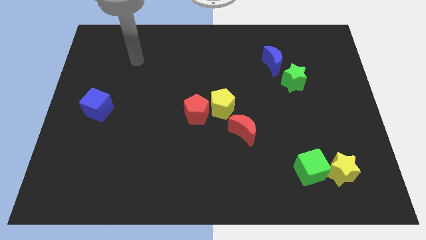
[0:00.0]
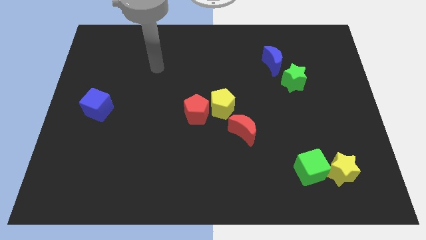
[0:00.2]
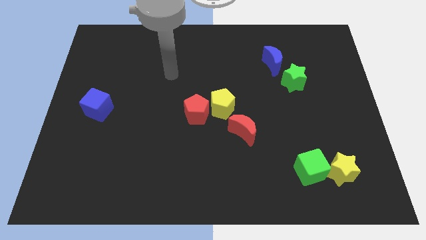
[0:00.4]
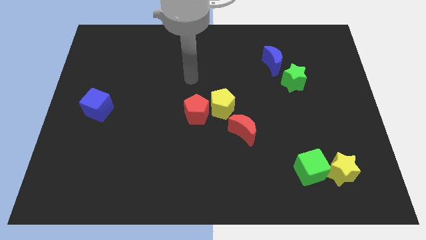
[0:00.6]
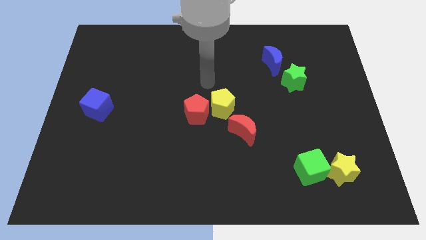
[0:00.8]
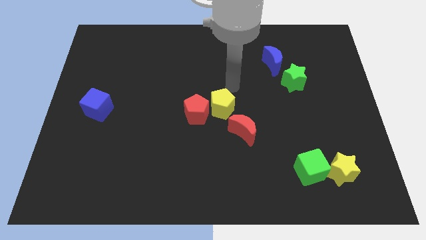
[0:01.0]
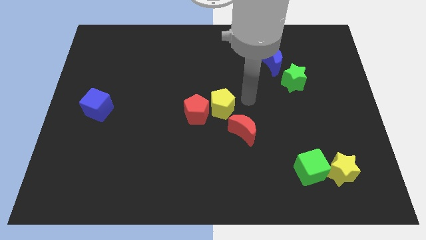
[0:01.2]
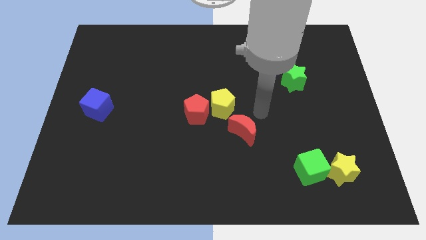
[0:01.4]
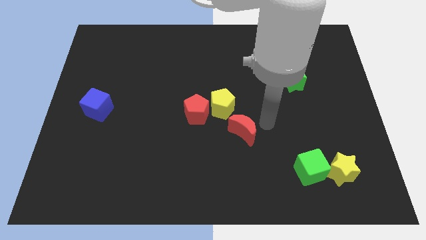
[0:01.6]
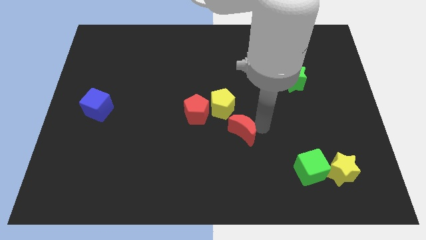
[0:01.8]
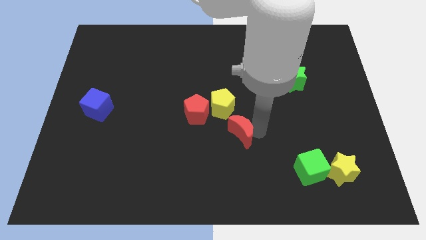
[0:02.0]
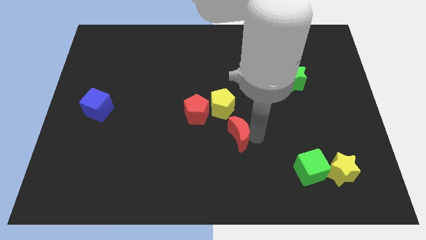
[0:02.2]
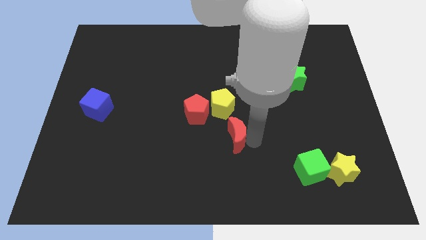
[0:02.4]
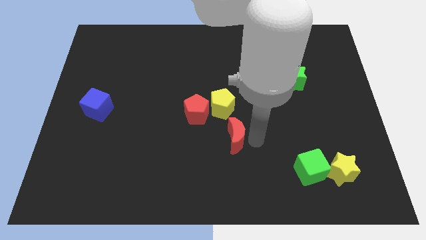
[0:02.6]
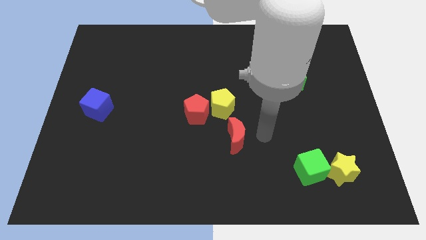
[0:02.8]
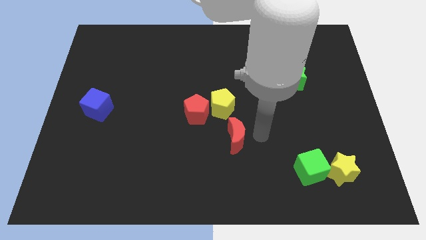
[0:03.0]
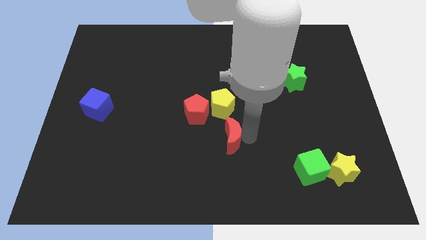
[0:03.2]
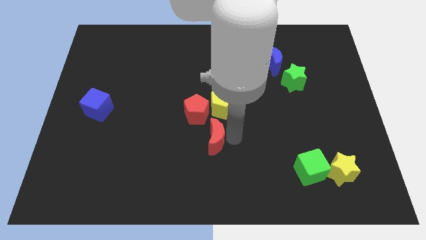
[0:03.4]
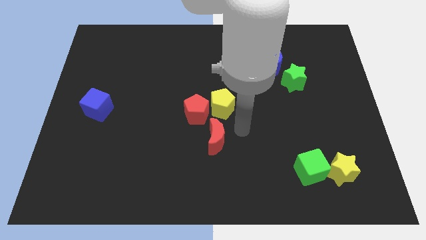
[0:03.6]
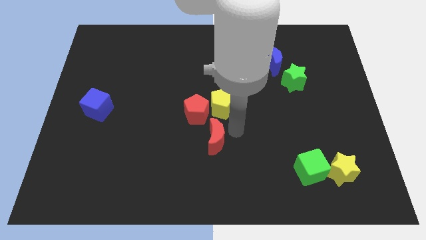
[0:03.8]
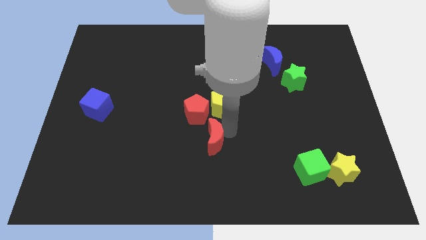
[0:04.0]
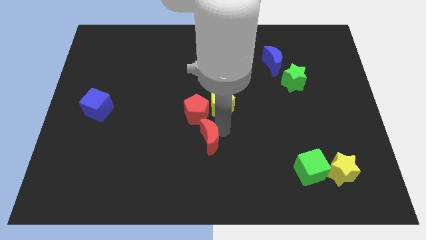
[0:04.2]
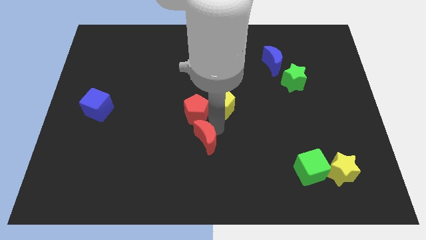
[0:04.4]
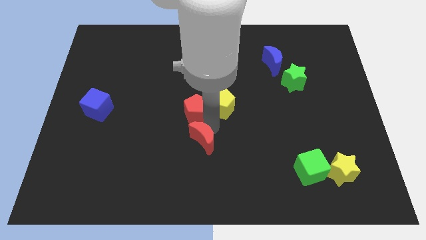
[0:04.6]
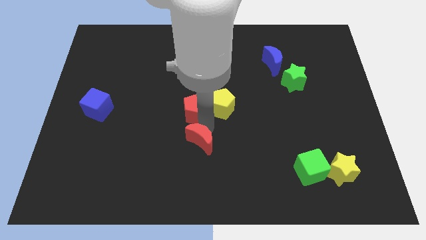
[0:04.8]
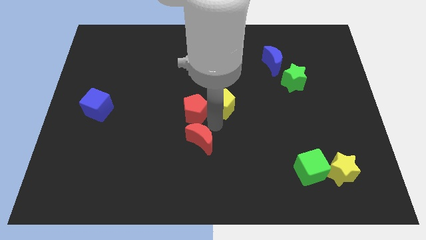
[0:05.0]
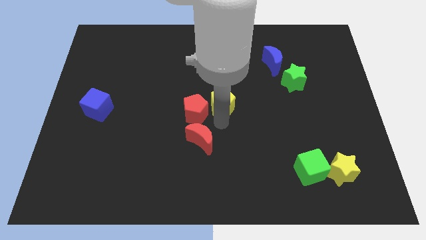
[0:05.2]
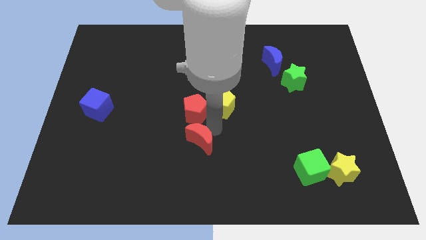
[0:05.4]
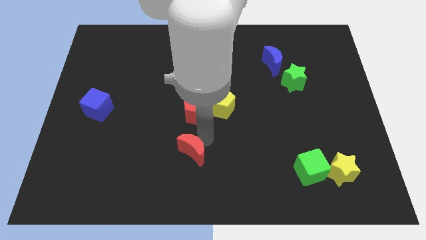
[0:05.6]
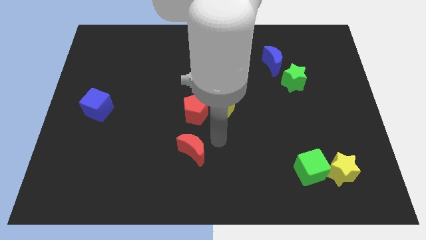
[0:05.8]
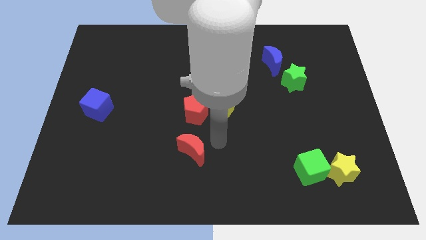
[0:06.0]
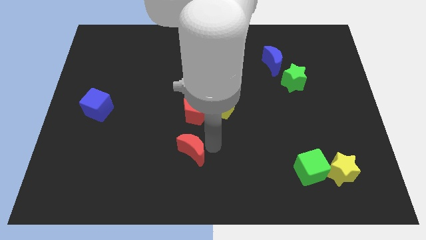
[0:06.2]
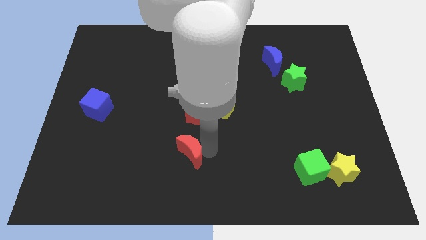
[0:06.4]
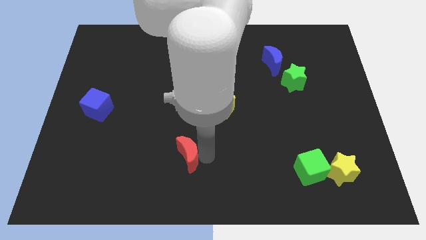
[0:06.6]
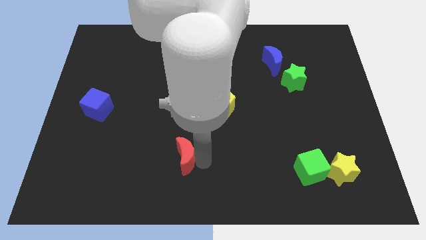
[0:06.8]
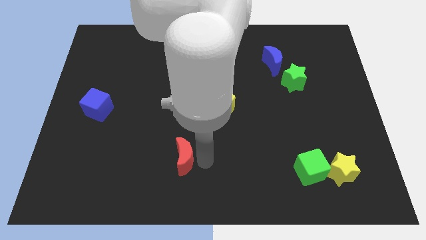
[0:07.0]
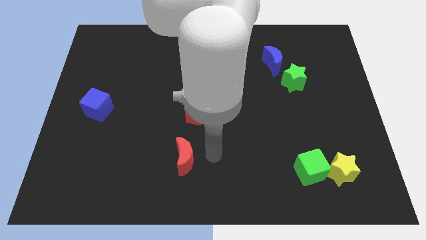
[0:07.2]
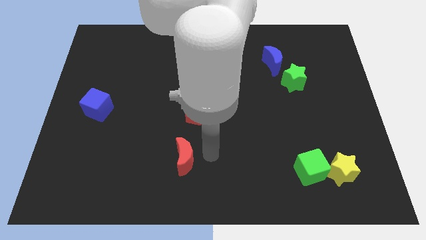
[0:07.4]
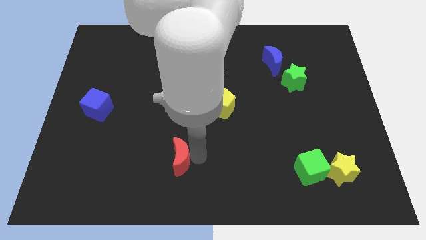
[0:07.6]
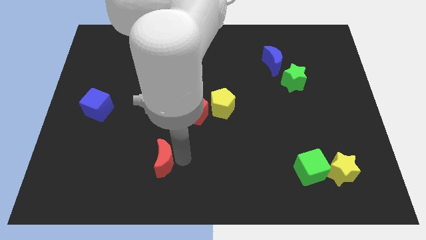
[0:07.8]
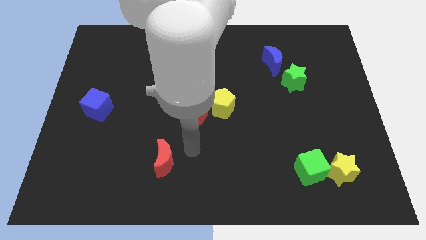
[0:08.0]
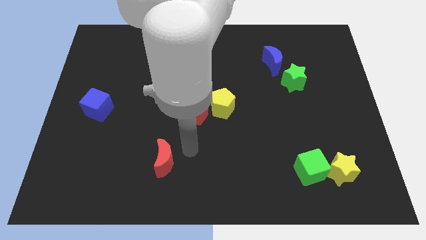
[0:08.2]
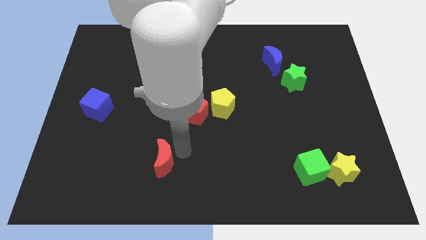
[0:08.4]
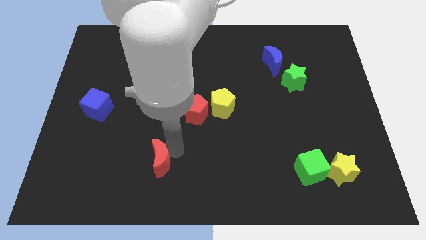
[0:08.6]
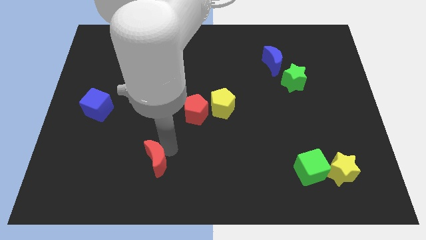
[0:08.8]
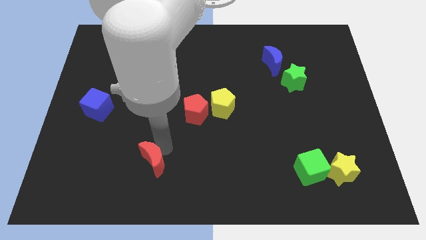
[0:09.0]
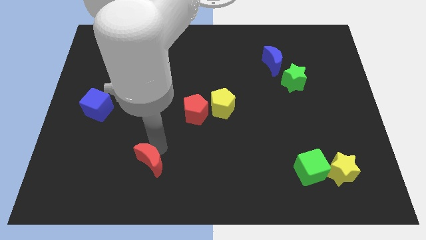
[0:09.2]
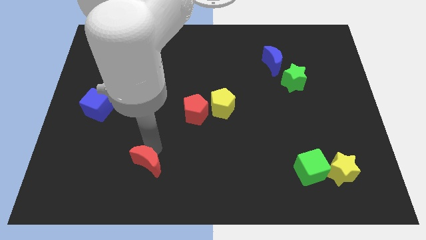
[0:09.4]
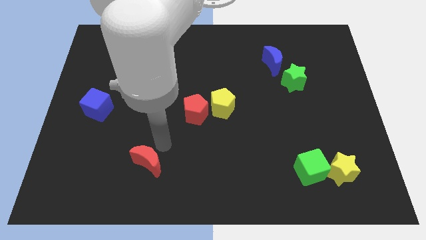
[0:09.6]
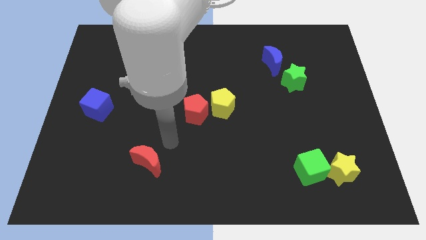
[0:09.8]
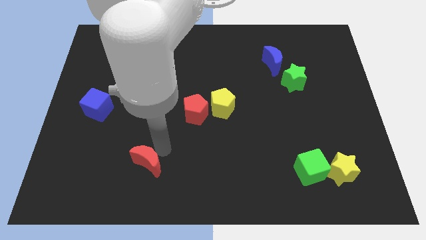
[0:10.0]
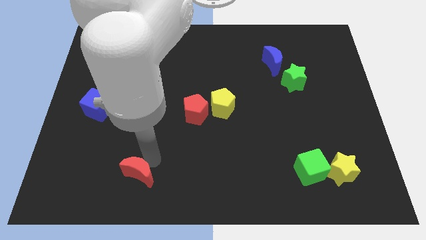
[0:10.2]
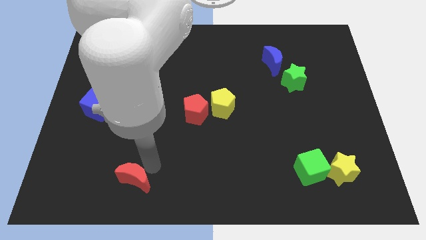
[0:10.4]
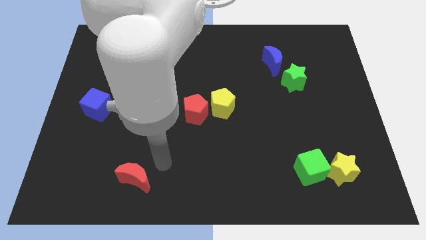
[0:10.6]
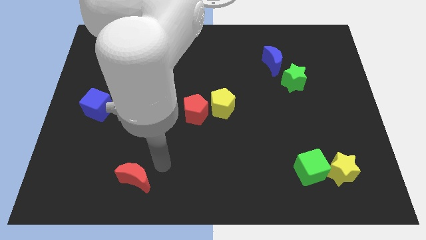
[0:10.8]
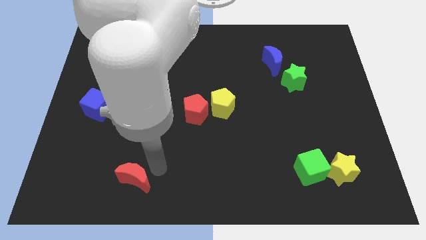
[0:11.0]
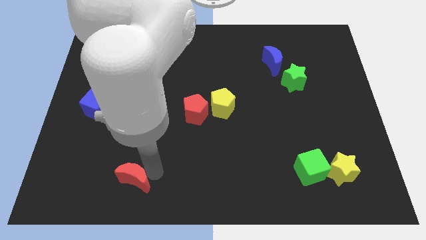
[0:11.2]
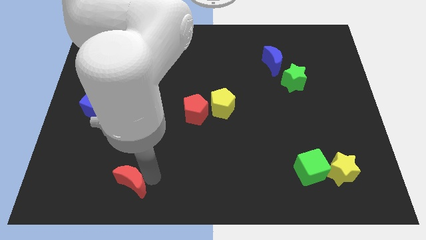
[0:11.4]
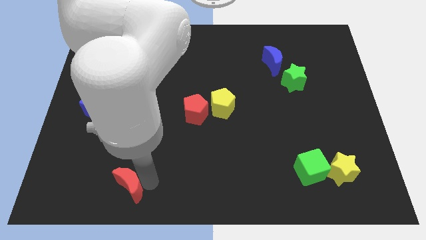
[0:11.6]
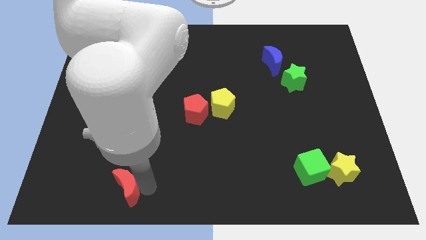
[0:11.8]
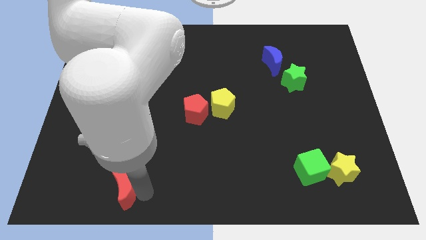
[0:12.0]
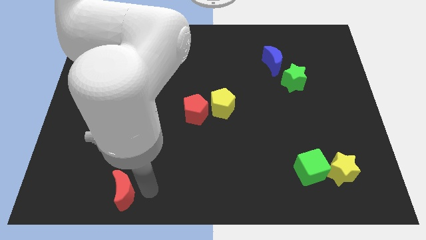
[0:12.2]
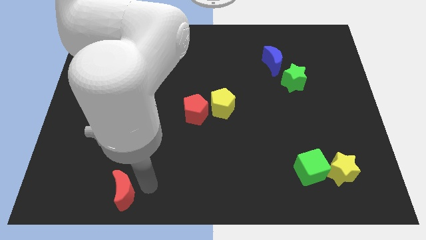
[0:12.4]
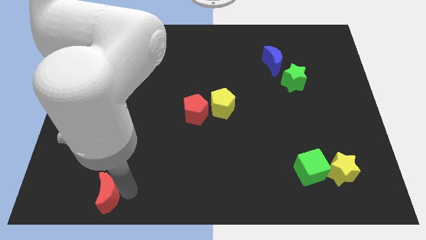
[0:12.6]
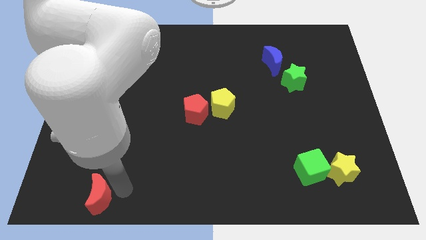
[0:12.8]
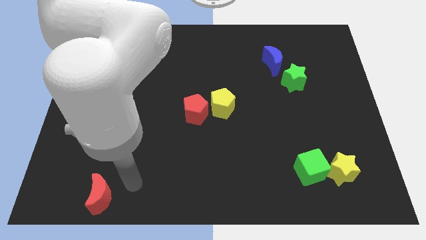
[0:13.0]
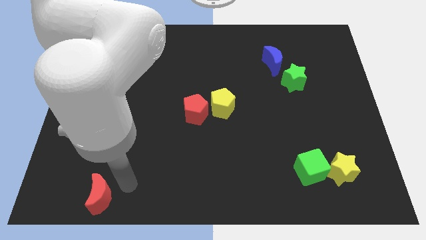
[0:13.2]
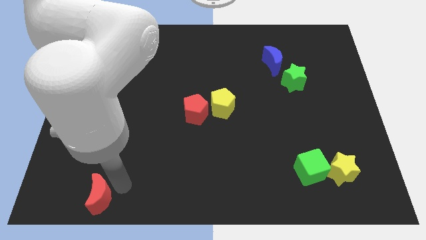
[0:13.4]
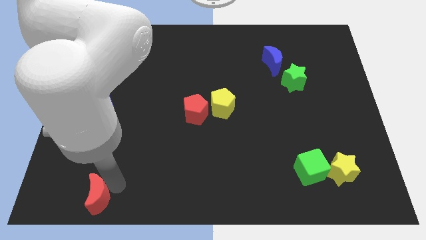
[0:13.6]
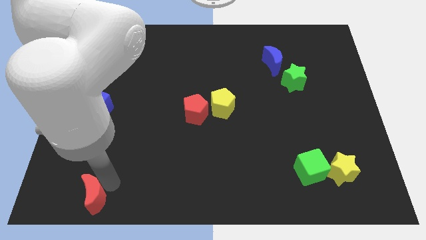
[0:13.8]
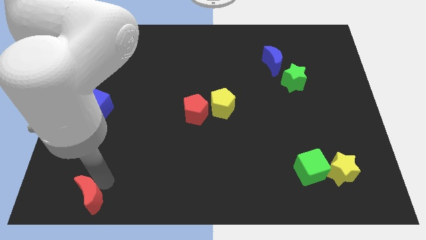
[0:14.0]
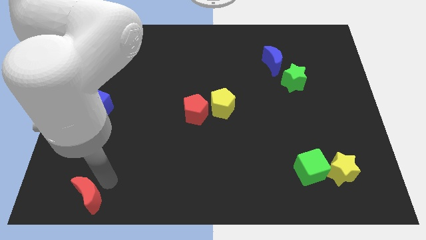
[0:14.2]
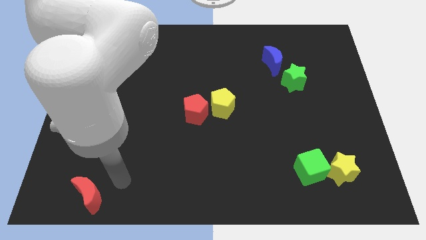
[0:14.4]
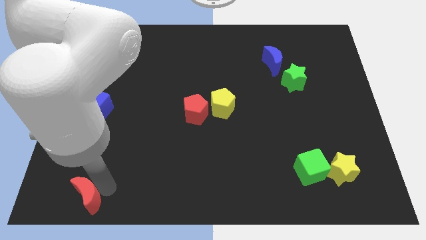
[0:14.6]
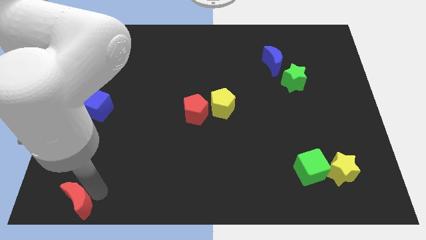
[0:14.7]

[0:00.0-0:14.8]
slide the red moon to the bottom left
